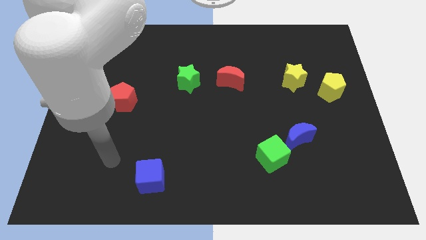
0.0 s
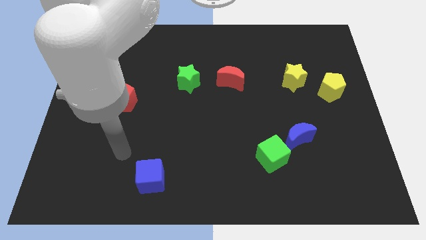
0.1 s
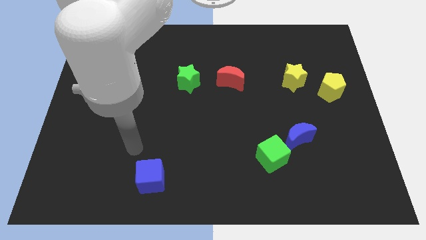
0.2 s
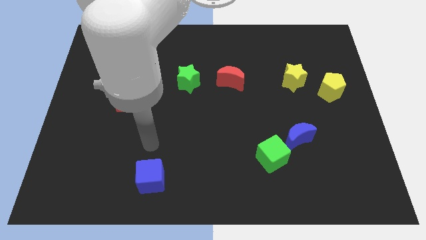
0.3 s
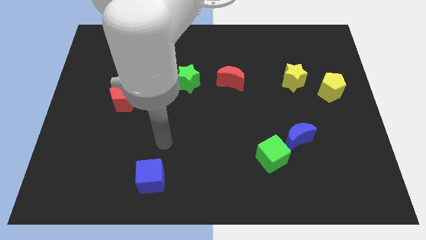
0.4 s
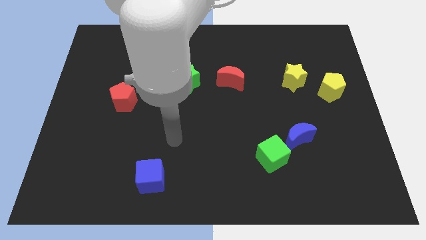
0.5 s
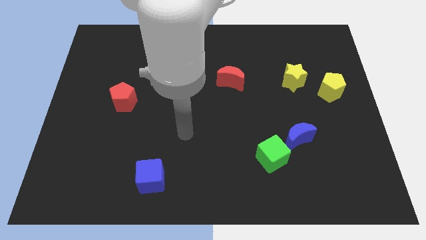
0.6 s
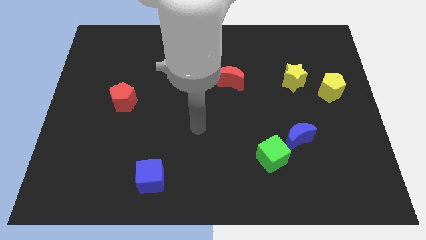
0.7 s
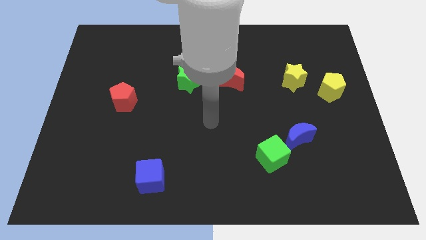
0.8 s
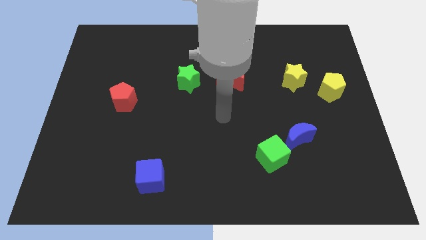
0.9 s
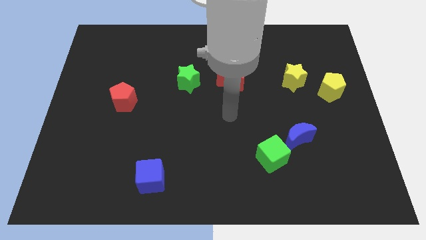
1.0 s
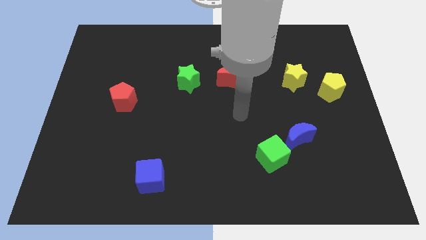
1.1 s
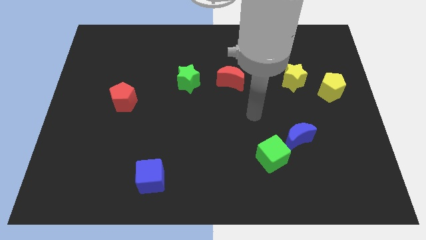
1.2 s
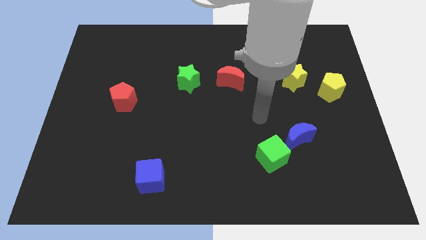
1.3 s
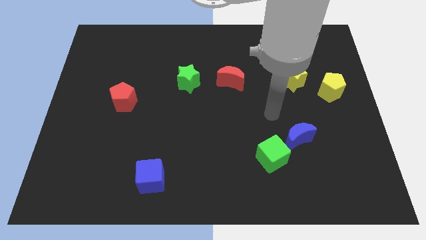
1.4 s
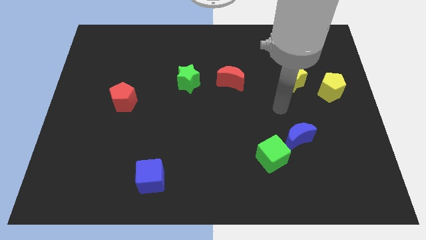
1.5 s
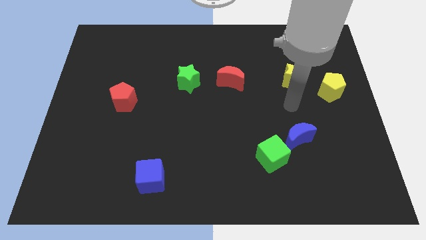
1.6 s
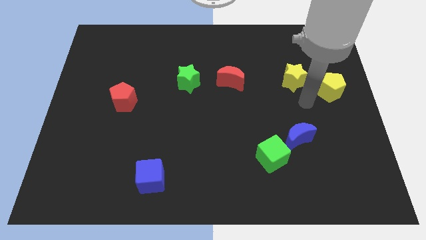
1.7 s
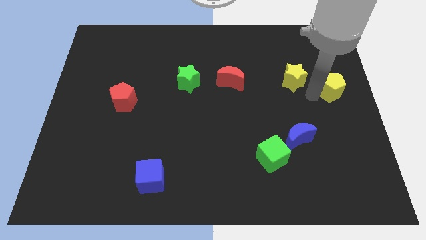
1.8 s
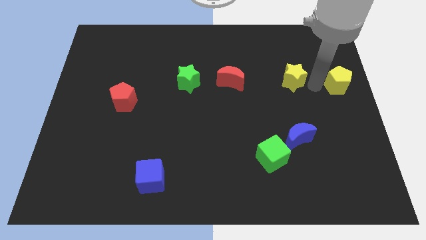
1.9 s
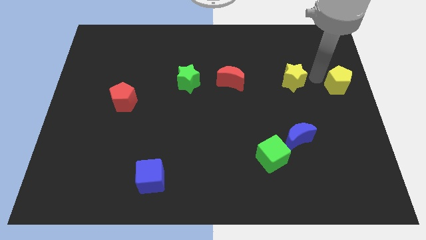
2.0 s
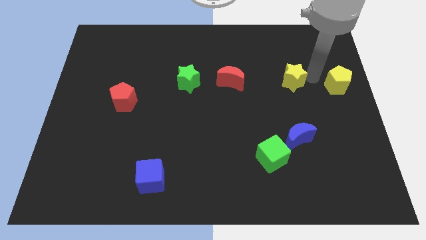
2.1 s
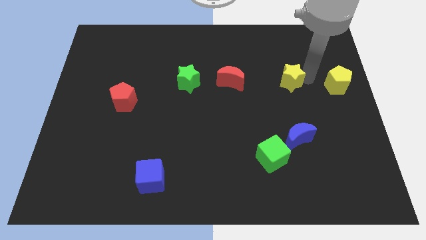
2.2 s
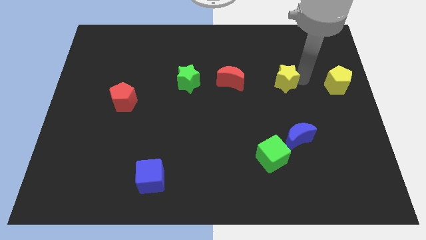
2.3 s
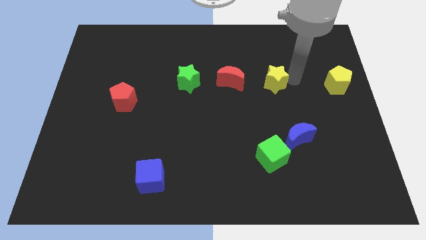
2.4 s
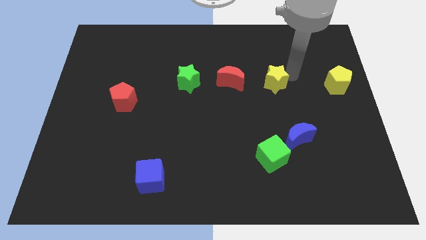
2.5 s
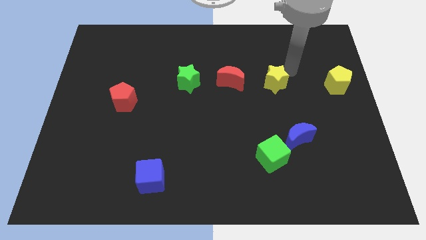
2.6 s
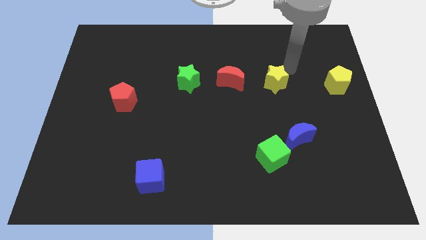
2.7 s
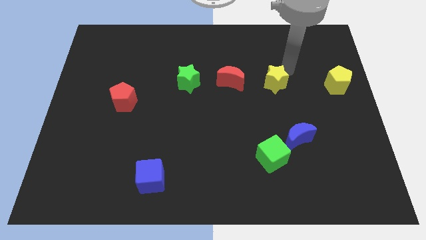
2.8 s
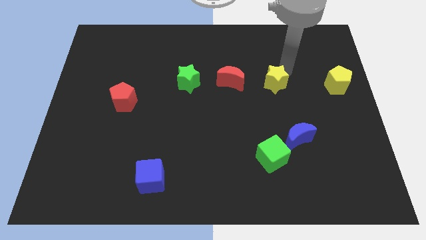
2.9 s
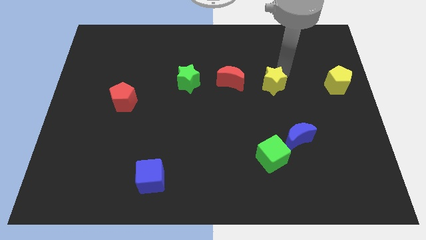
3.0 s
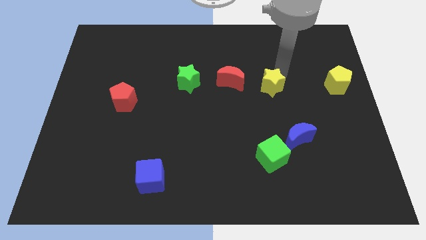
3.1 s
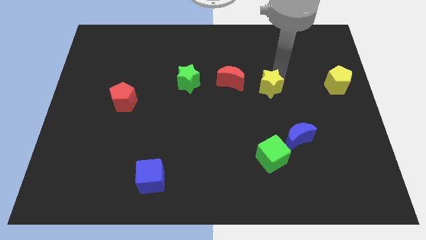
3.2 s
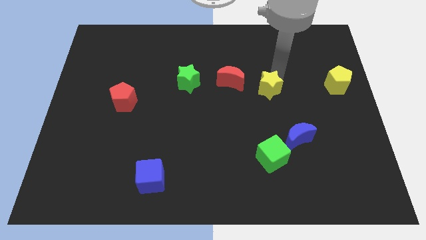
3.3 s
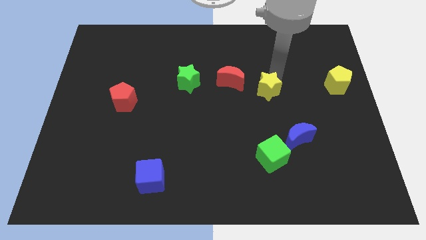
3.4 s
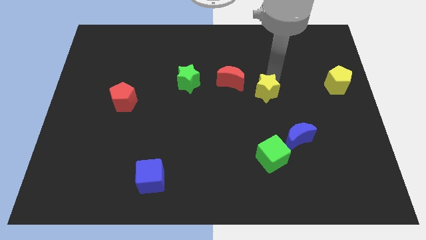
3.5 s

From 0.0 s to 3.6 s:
slide the yellow star a little to the left

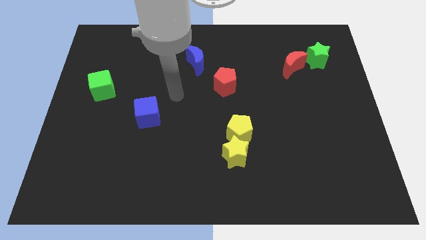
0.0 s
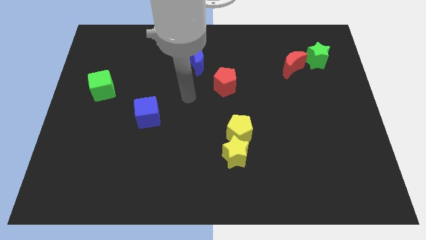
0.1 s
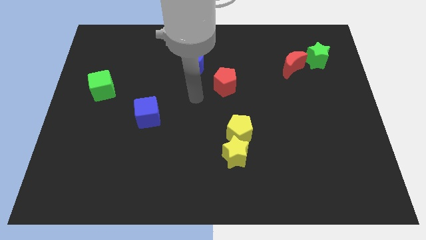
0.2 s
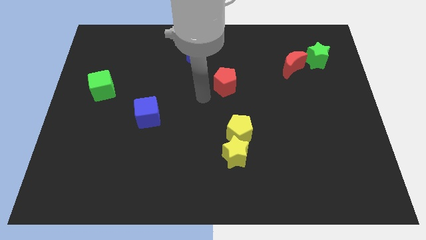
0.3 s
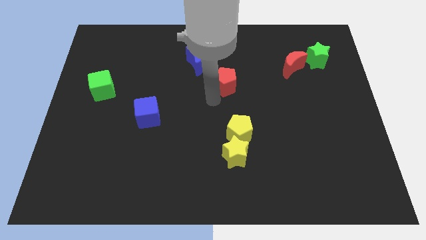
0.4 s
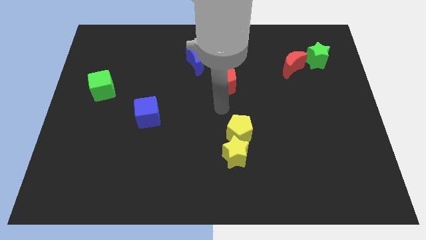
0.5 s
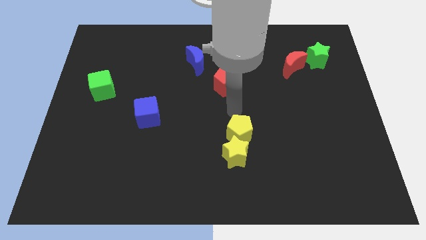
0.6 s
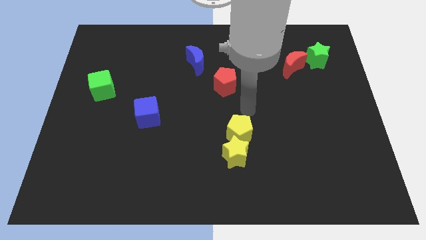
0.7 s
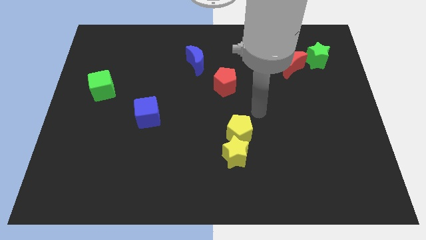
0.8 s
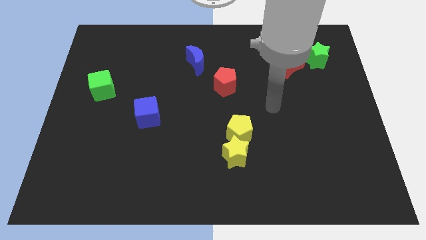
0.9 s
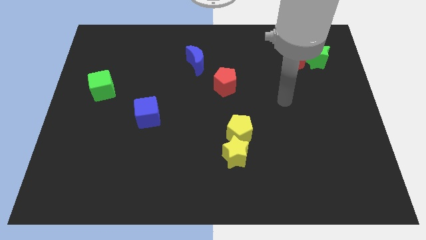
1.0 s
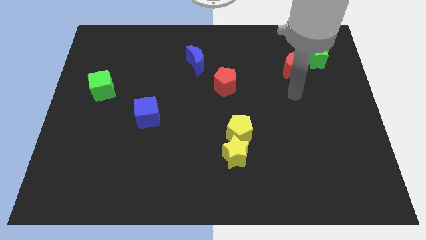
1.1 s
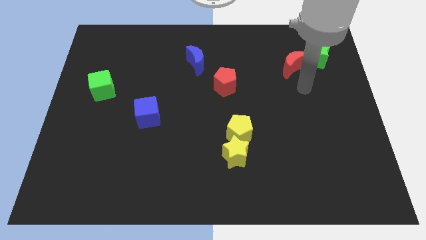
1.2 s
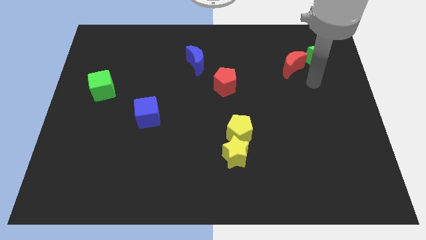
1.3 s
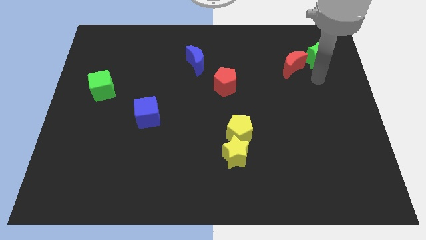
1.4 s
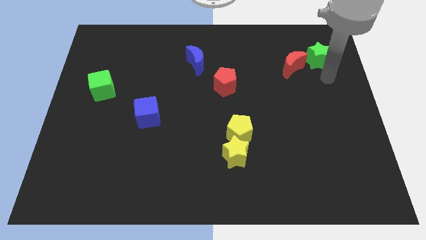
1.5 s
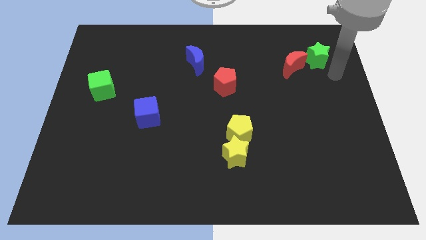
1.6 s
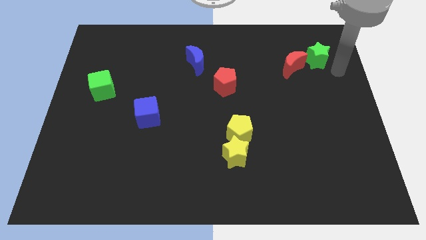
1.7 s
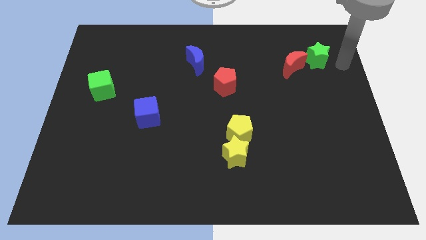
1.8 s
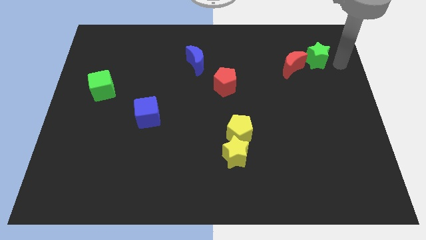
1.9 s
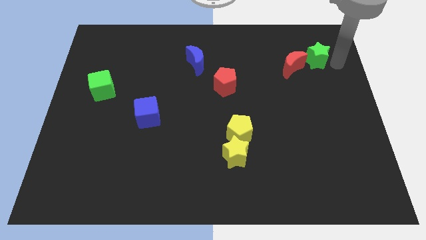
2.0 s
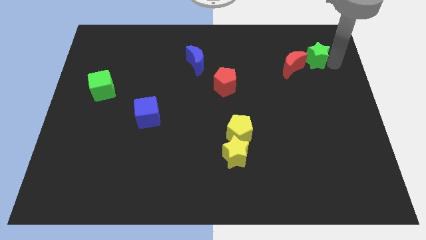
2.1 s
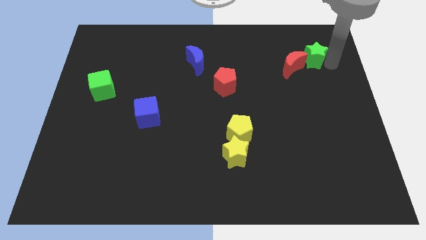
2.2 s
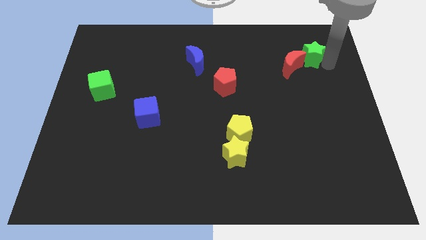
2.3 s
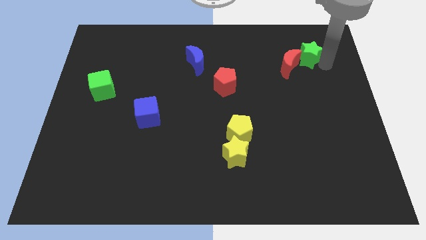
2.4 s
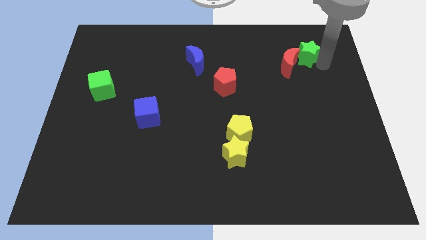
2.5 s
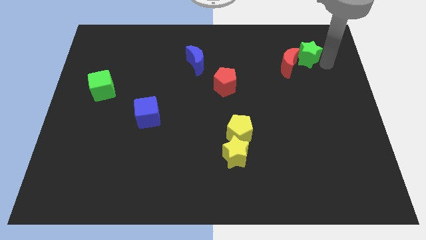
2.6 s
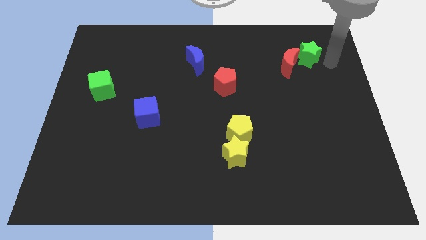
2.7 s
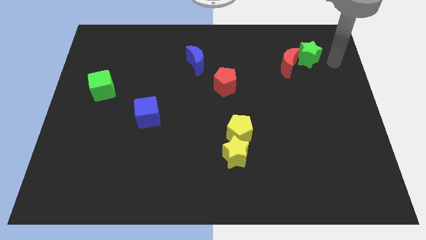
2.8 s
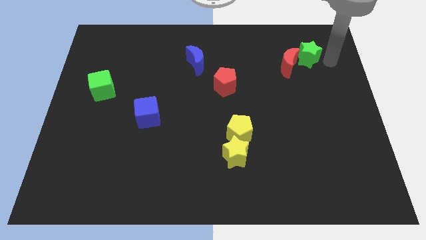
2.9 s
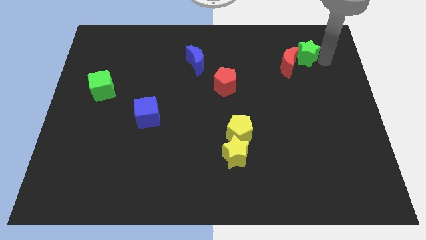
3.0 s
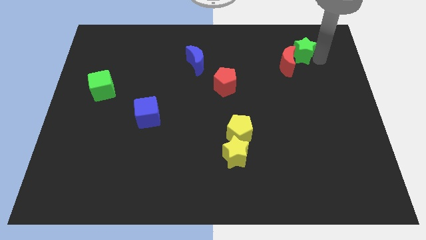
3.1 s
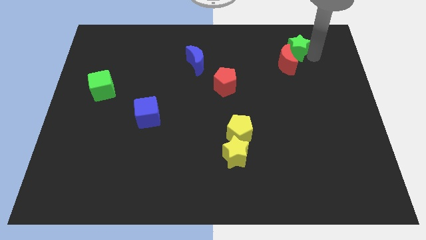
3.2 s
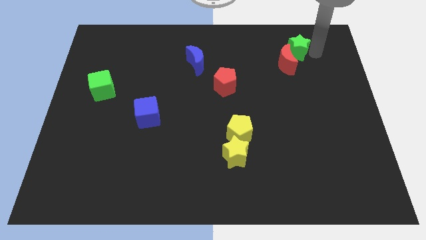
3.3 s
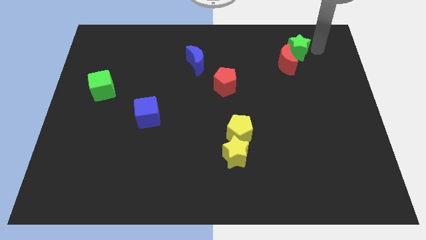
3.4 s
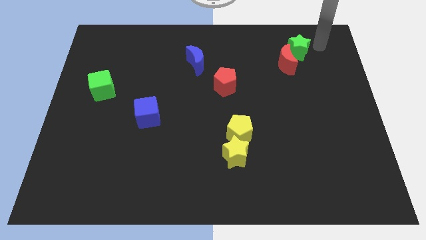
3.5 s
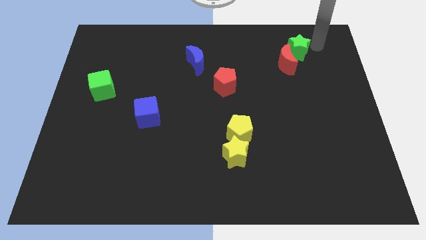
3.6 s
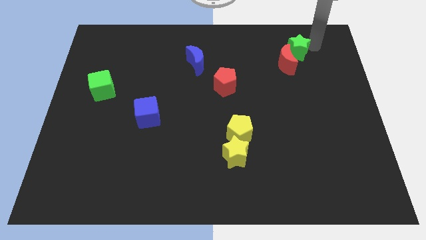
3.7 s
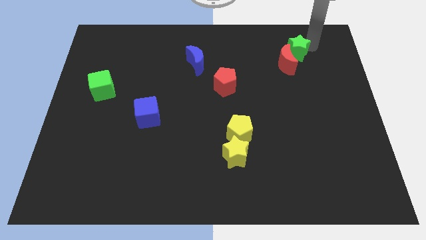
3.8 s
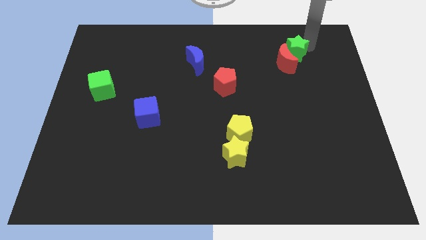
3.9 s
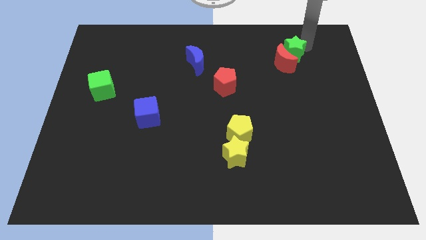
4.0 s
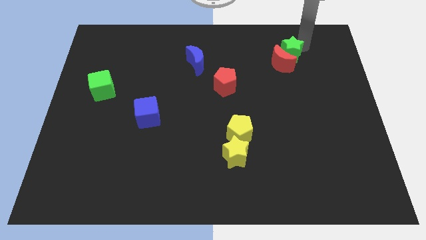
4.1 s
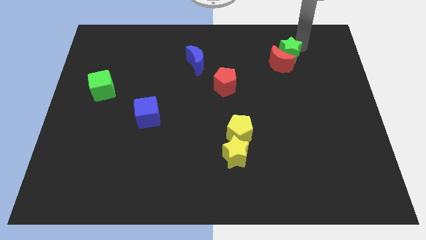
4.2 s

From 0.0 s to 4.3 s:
slide the green star left somewhat
